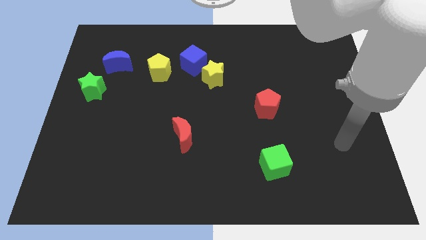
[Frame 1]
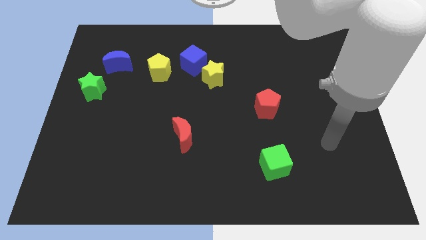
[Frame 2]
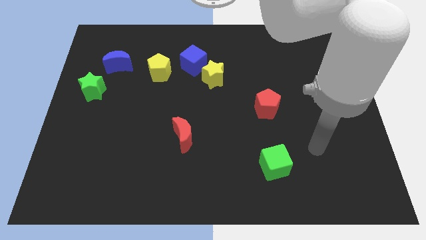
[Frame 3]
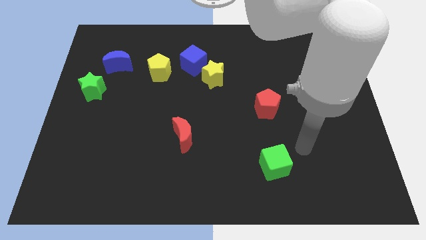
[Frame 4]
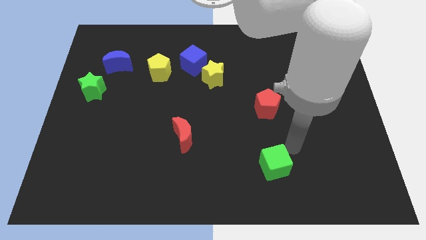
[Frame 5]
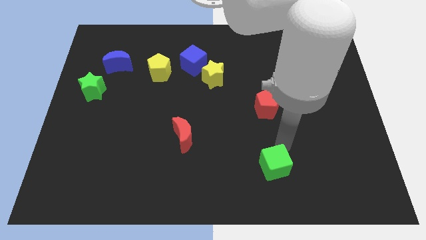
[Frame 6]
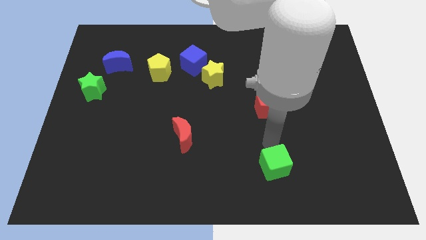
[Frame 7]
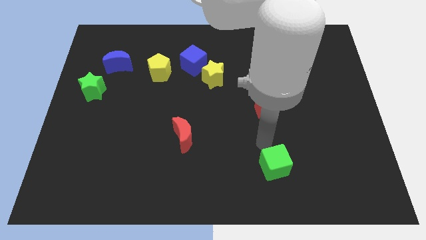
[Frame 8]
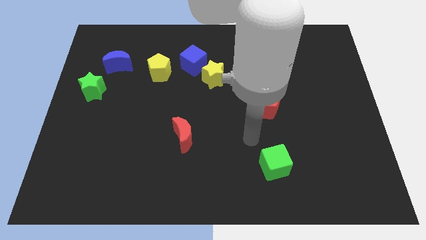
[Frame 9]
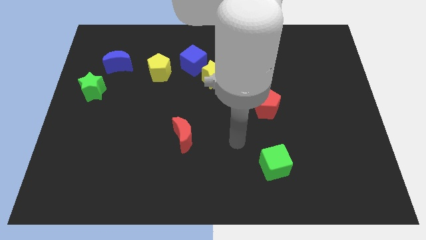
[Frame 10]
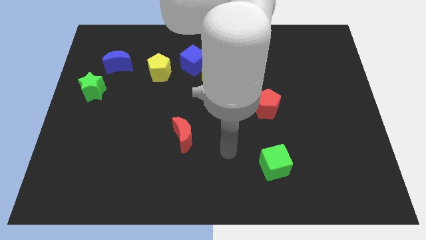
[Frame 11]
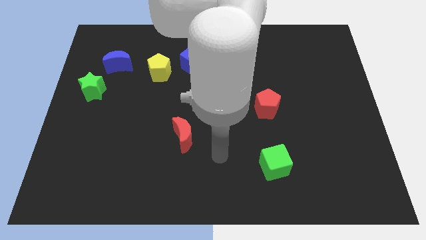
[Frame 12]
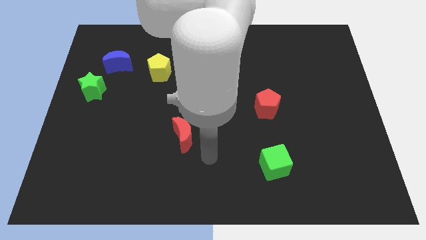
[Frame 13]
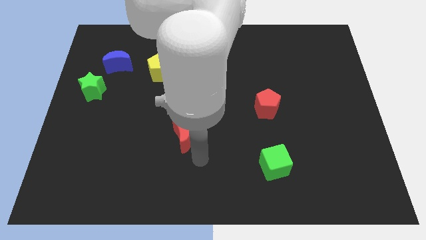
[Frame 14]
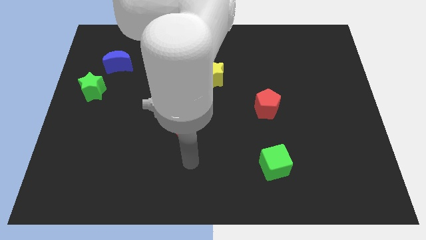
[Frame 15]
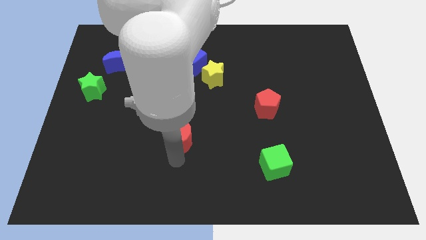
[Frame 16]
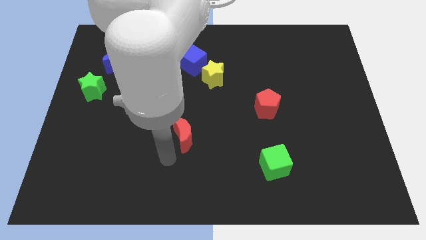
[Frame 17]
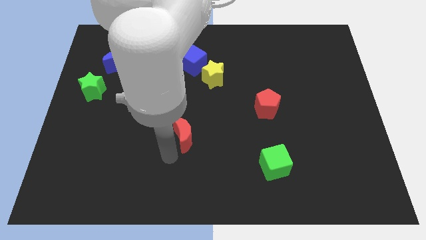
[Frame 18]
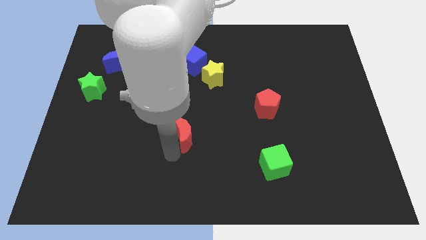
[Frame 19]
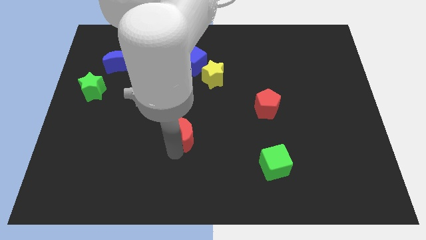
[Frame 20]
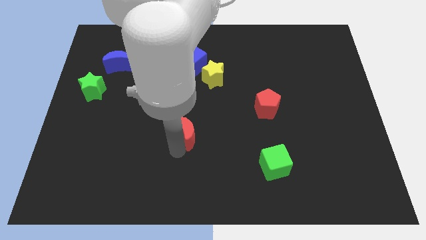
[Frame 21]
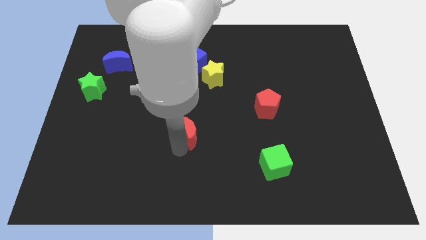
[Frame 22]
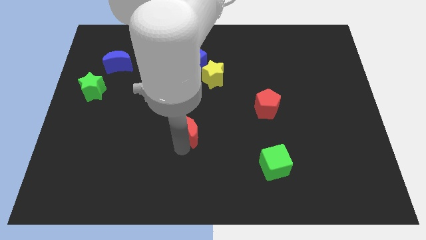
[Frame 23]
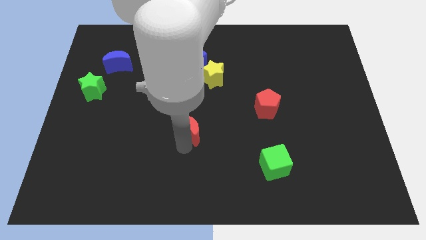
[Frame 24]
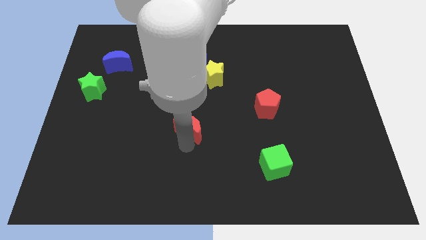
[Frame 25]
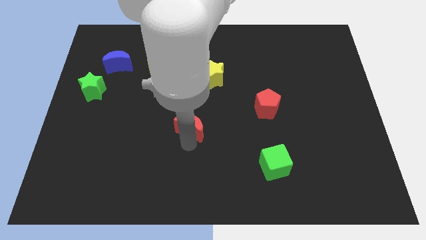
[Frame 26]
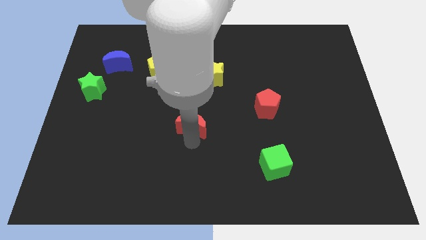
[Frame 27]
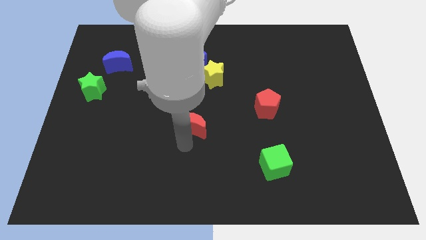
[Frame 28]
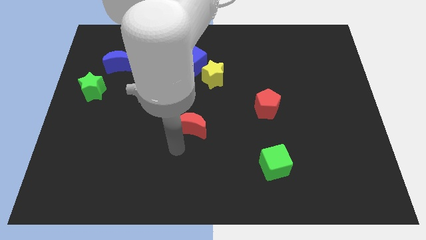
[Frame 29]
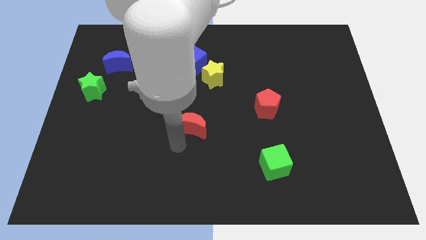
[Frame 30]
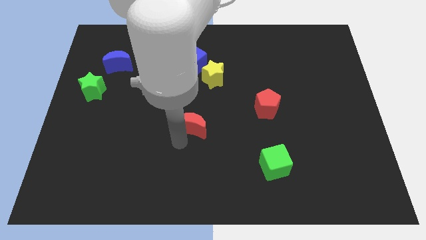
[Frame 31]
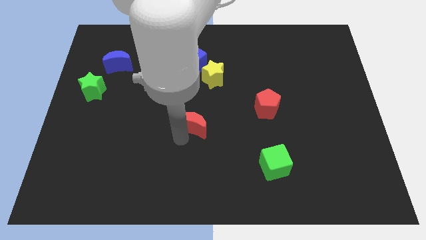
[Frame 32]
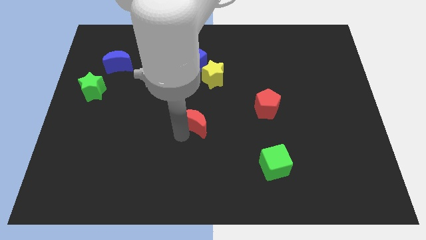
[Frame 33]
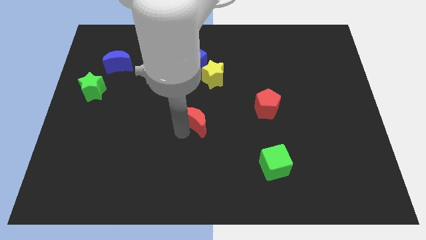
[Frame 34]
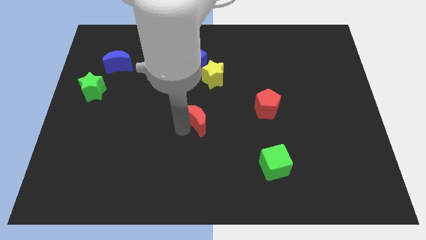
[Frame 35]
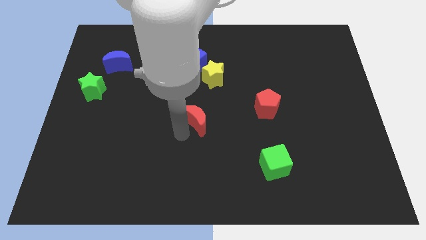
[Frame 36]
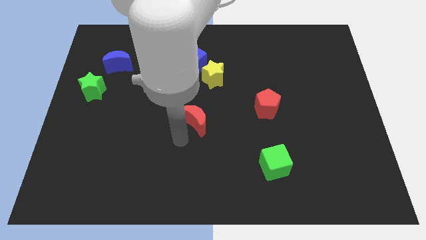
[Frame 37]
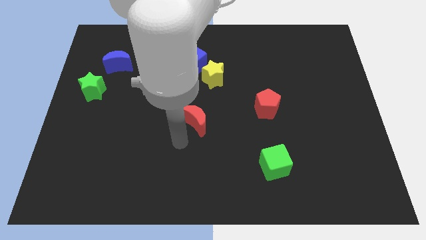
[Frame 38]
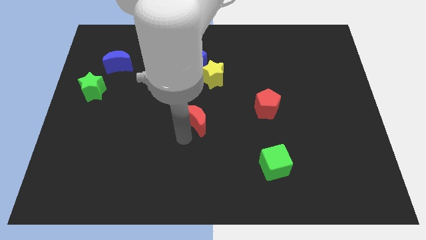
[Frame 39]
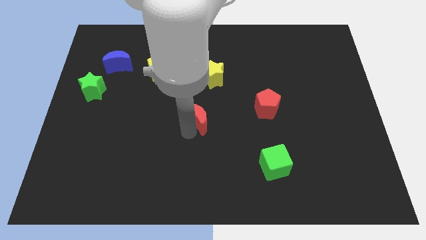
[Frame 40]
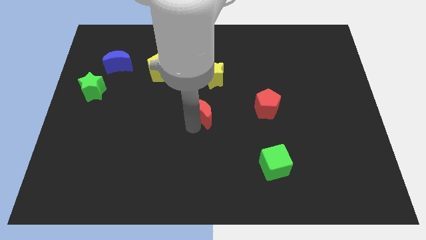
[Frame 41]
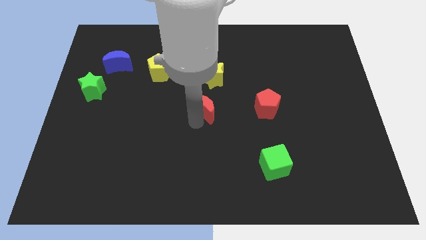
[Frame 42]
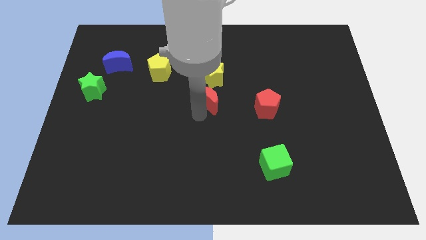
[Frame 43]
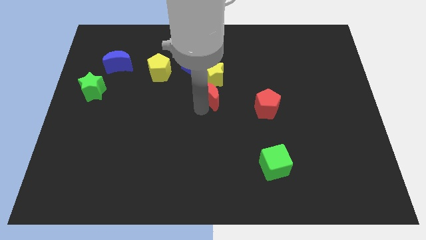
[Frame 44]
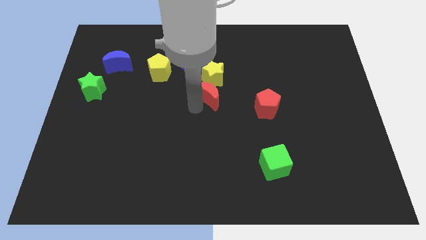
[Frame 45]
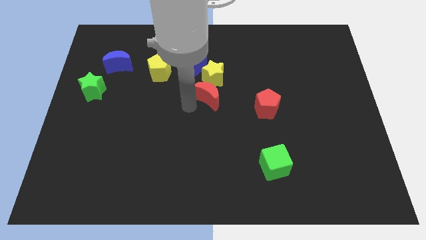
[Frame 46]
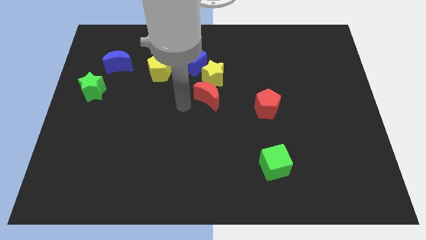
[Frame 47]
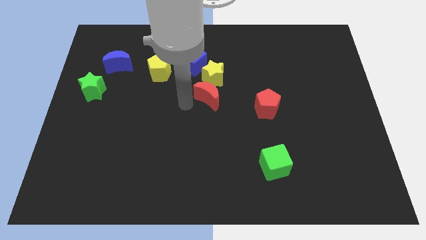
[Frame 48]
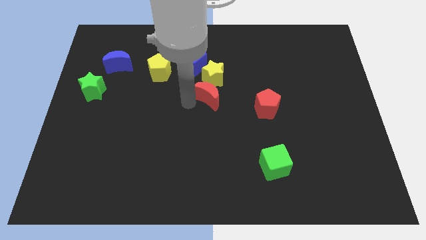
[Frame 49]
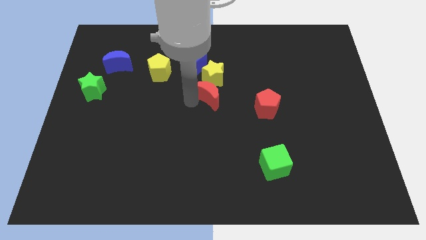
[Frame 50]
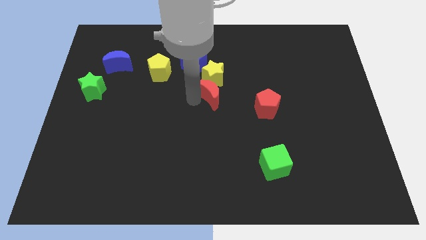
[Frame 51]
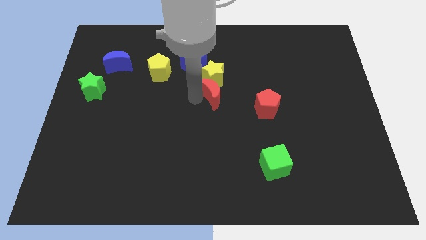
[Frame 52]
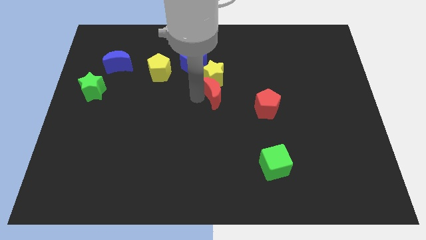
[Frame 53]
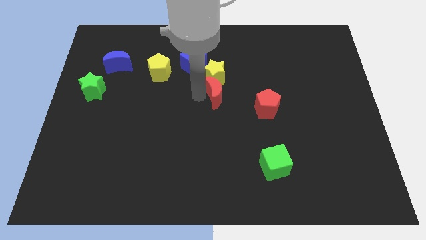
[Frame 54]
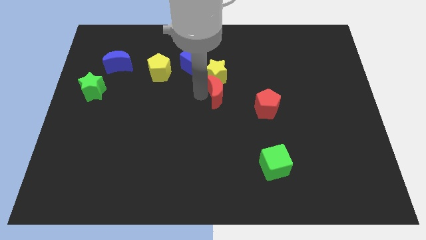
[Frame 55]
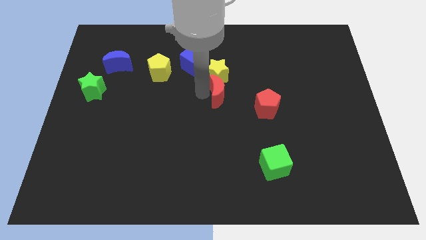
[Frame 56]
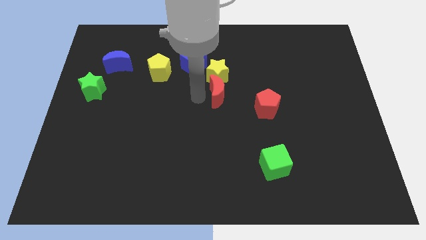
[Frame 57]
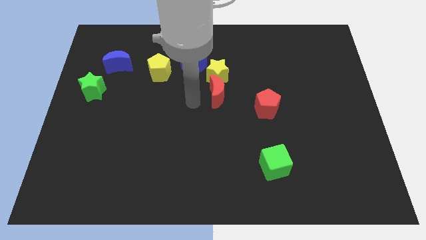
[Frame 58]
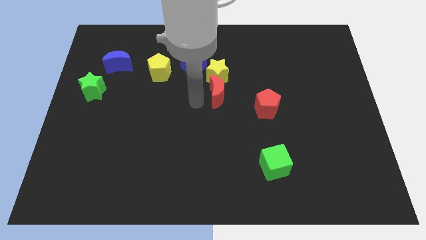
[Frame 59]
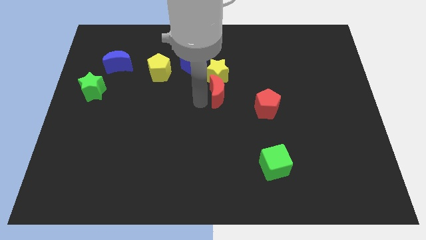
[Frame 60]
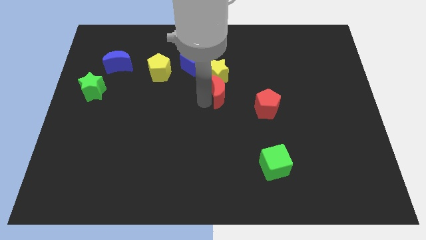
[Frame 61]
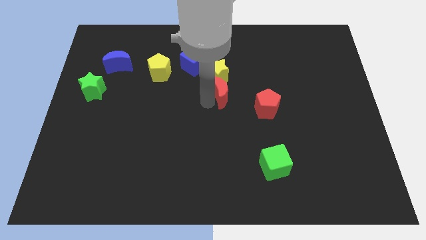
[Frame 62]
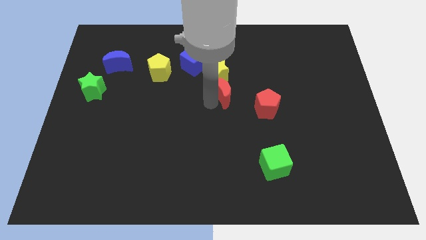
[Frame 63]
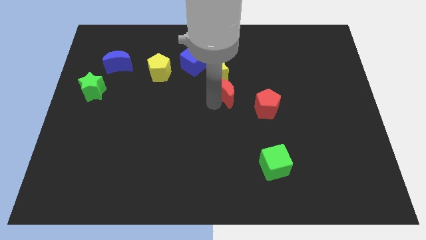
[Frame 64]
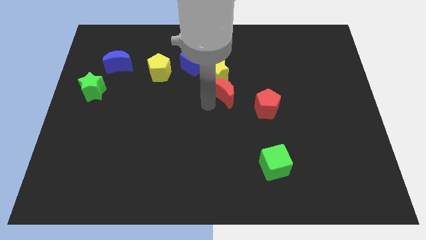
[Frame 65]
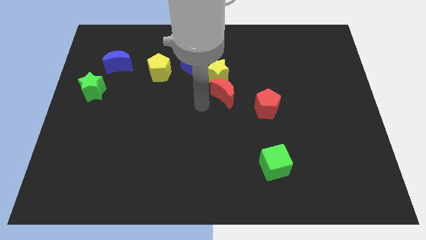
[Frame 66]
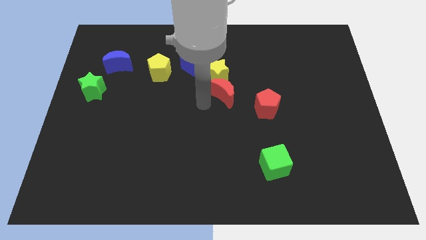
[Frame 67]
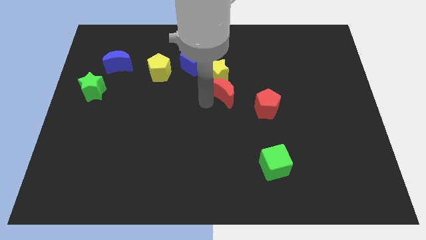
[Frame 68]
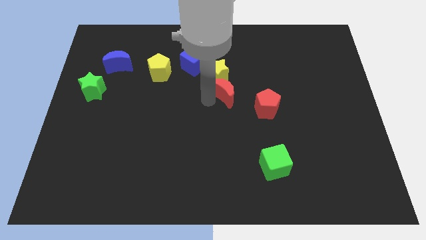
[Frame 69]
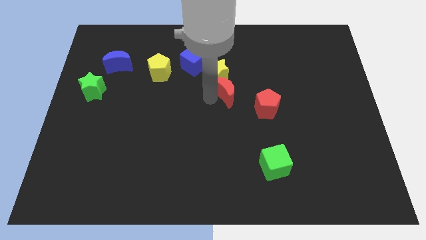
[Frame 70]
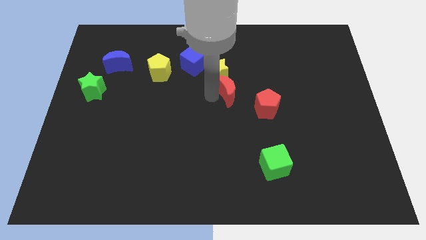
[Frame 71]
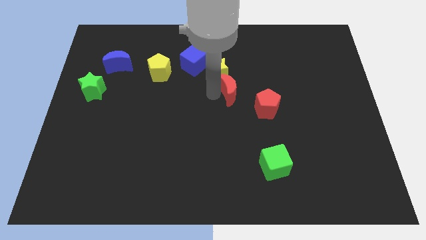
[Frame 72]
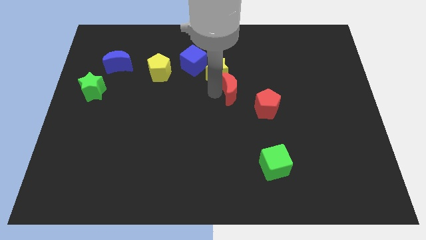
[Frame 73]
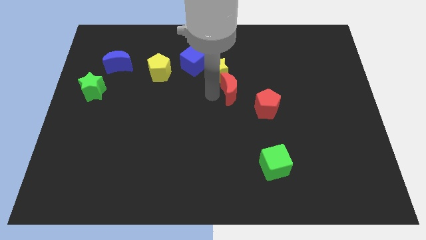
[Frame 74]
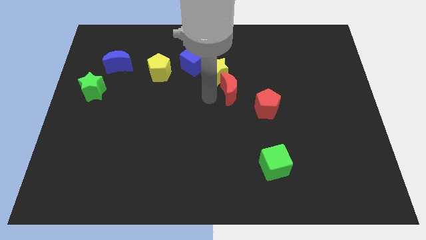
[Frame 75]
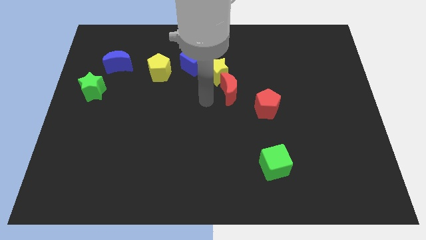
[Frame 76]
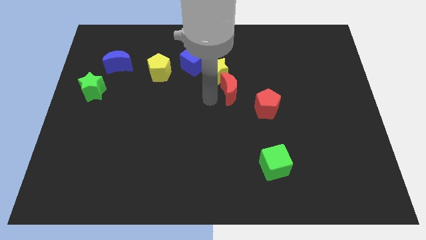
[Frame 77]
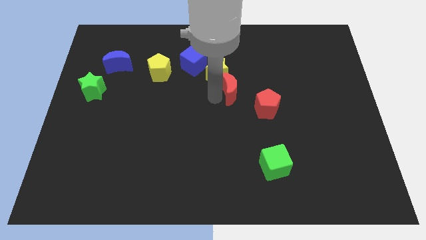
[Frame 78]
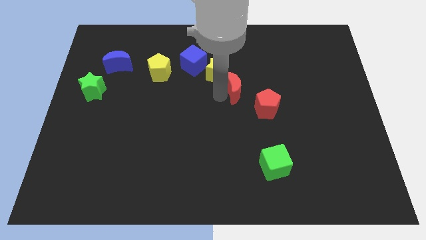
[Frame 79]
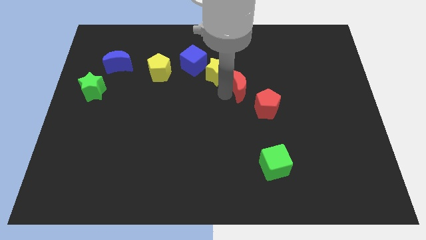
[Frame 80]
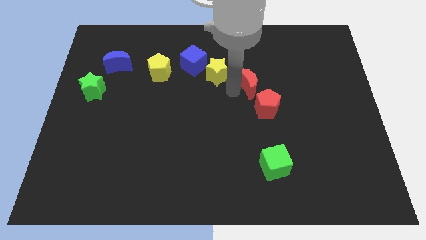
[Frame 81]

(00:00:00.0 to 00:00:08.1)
push the red moon up and to the right
